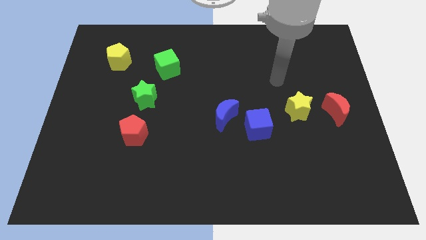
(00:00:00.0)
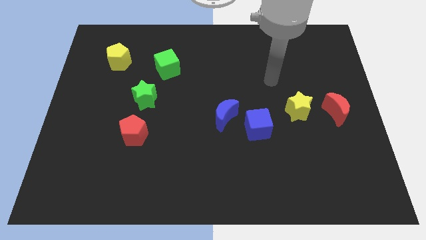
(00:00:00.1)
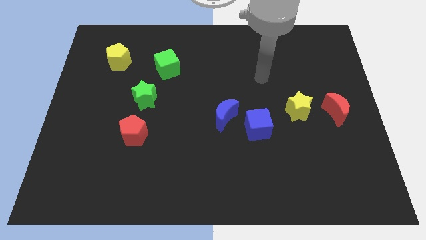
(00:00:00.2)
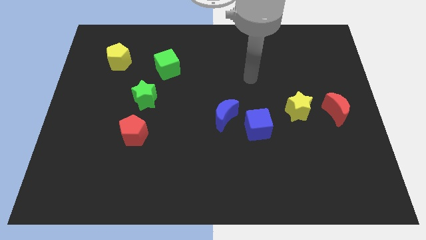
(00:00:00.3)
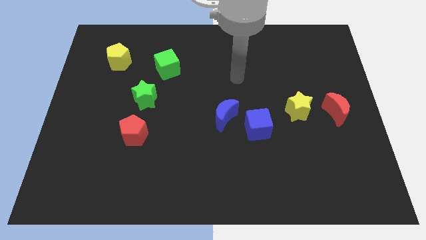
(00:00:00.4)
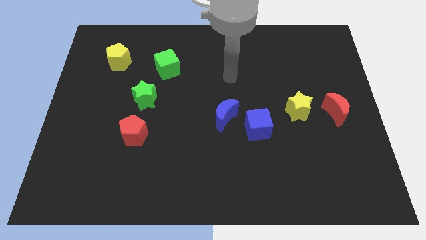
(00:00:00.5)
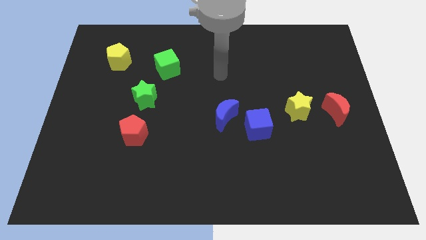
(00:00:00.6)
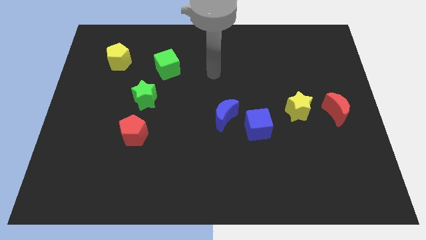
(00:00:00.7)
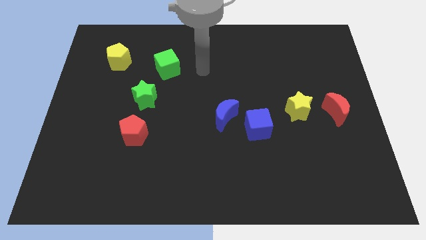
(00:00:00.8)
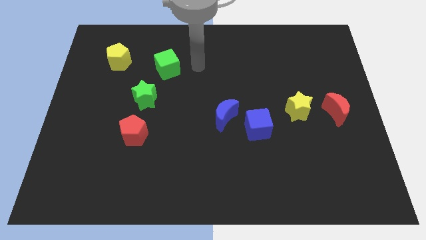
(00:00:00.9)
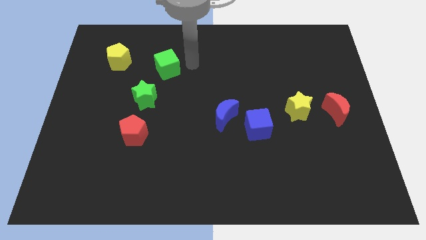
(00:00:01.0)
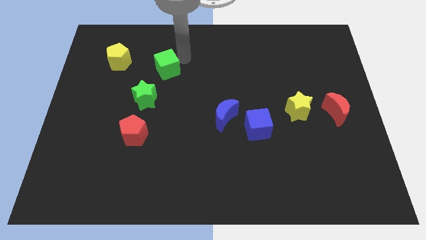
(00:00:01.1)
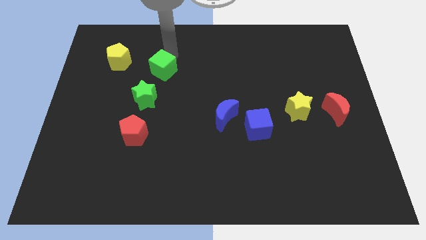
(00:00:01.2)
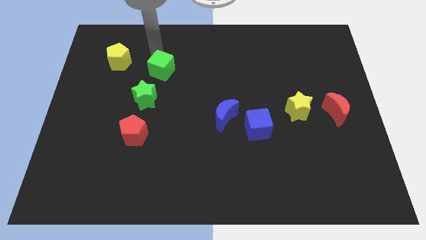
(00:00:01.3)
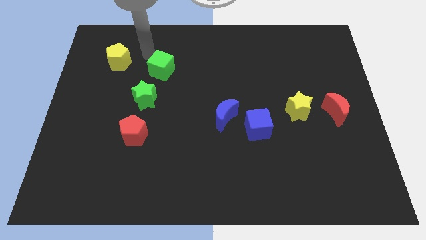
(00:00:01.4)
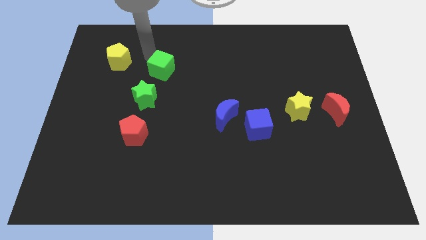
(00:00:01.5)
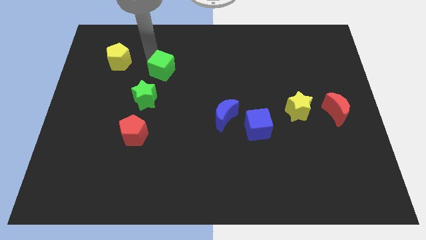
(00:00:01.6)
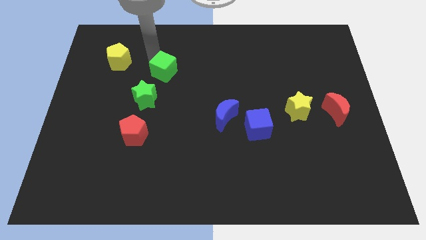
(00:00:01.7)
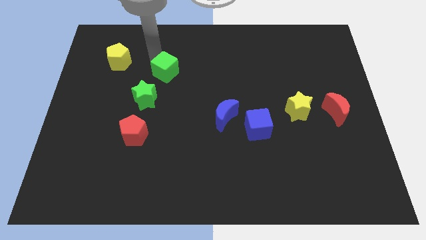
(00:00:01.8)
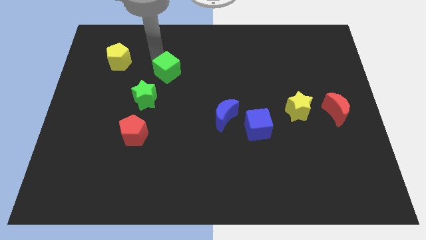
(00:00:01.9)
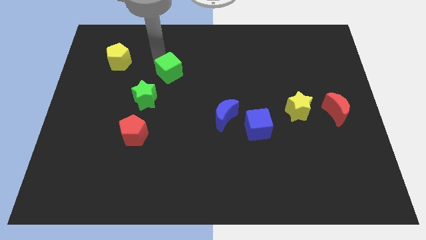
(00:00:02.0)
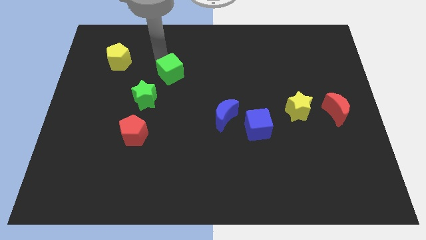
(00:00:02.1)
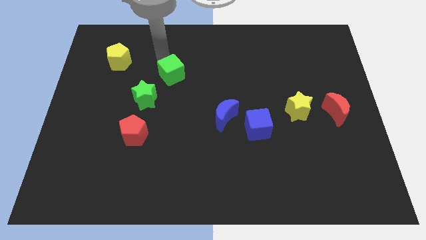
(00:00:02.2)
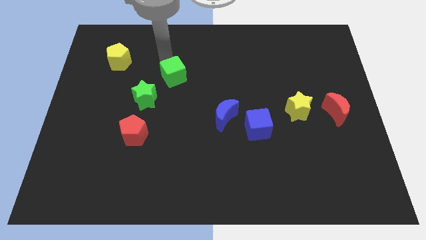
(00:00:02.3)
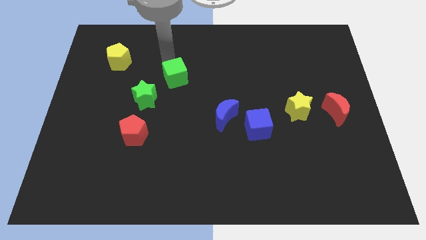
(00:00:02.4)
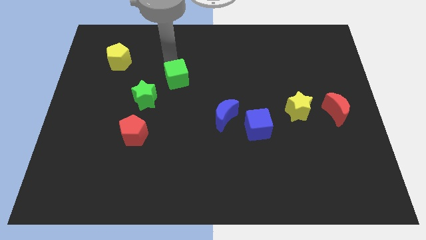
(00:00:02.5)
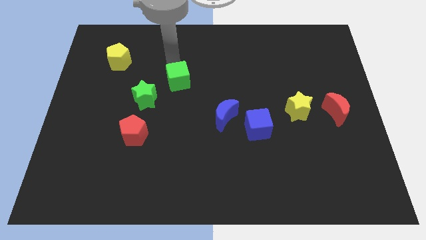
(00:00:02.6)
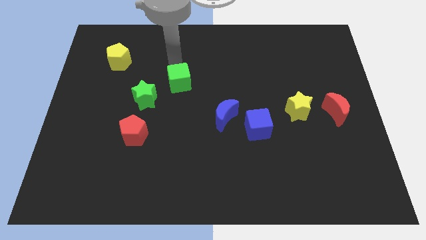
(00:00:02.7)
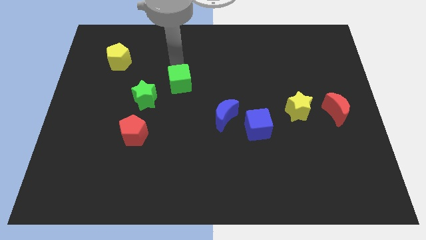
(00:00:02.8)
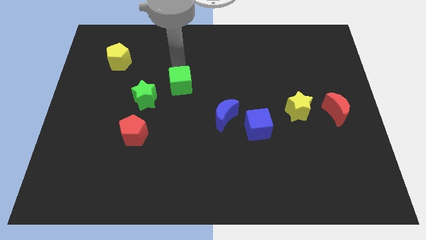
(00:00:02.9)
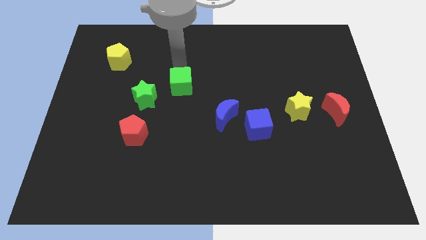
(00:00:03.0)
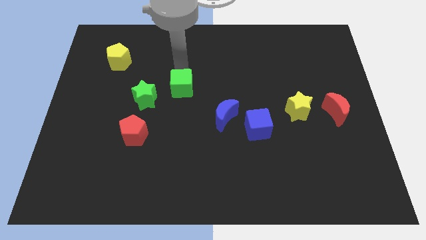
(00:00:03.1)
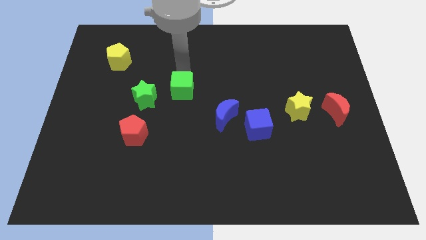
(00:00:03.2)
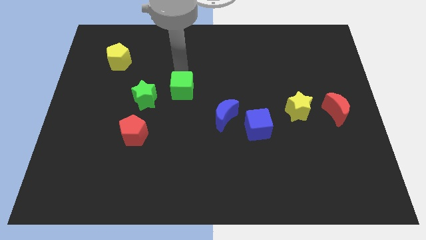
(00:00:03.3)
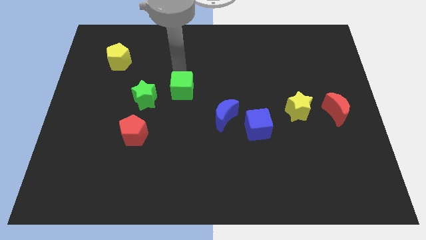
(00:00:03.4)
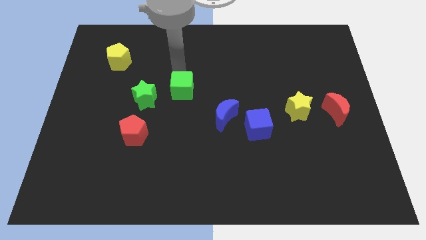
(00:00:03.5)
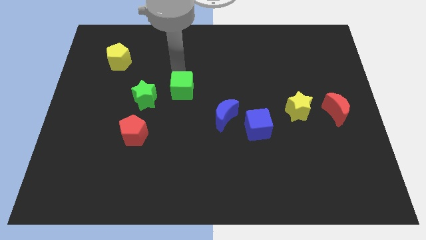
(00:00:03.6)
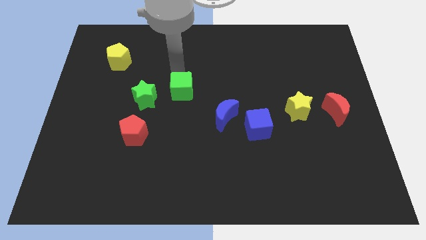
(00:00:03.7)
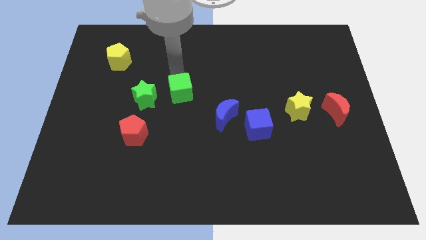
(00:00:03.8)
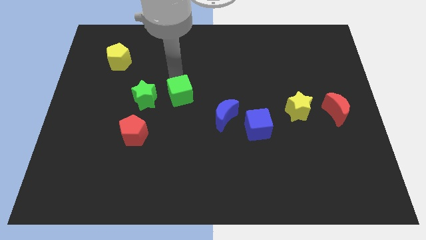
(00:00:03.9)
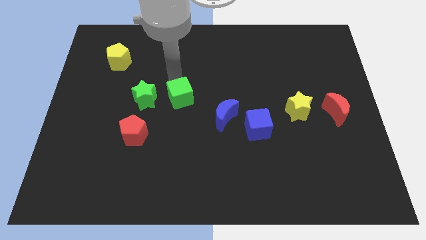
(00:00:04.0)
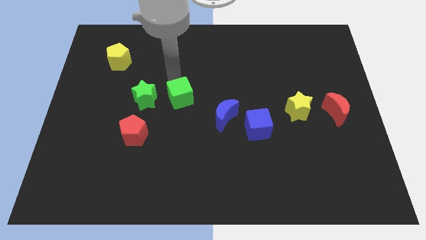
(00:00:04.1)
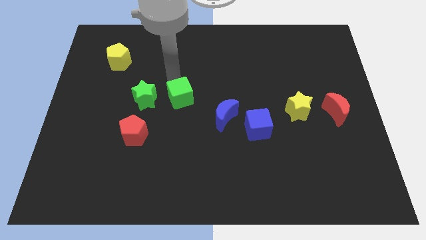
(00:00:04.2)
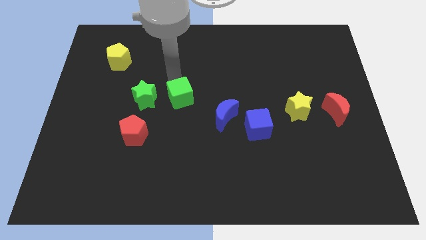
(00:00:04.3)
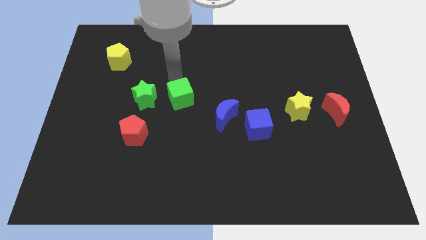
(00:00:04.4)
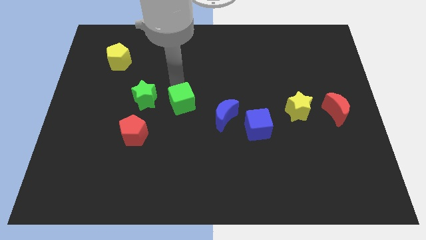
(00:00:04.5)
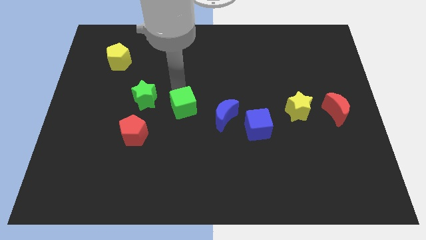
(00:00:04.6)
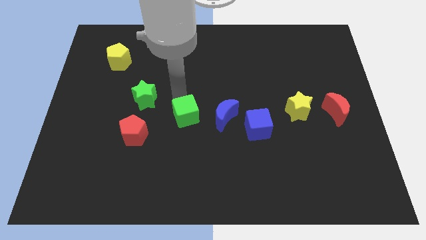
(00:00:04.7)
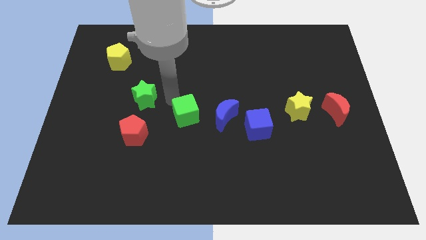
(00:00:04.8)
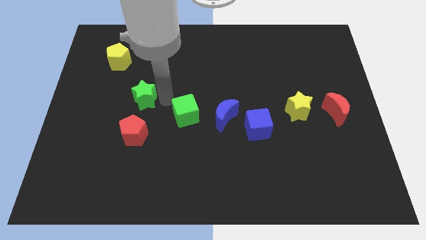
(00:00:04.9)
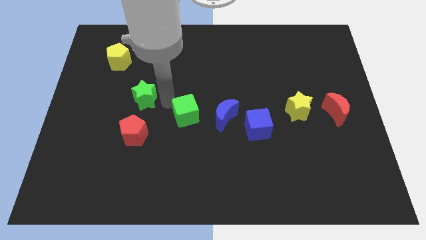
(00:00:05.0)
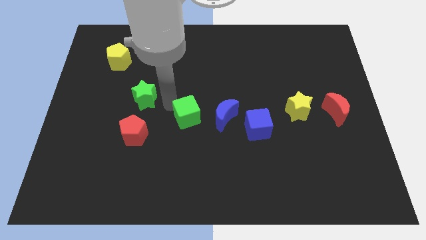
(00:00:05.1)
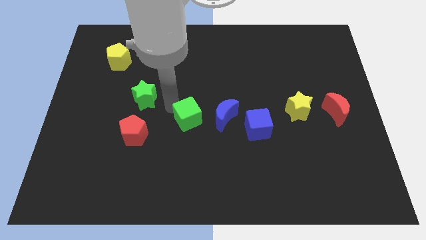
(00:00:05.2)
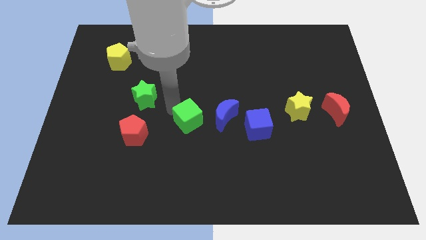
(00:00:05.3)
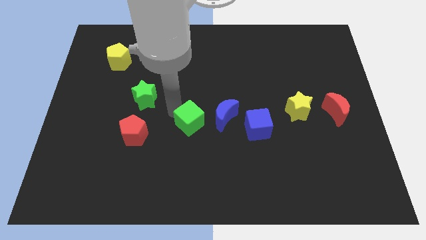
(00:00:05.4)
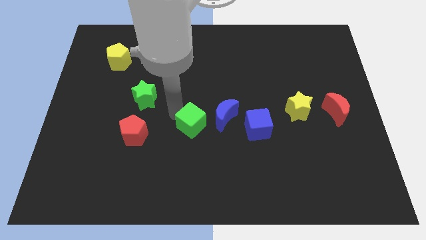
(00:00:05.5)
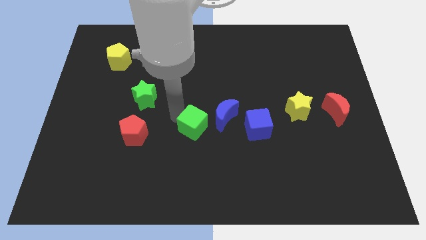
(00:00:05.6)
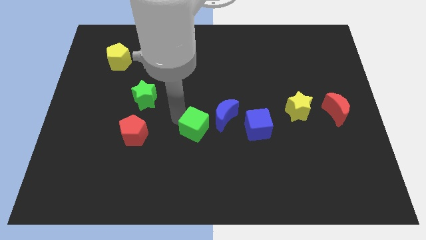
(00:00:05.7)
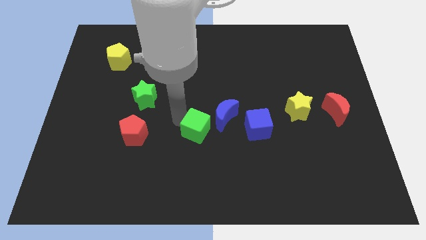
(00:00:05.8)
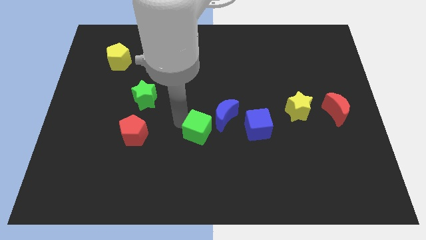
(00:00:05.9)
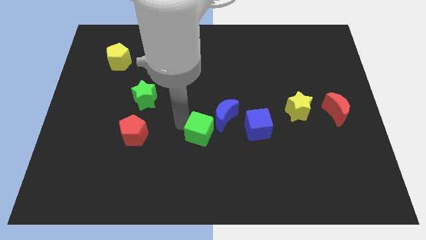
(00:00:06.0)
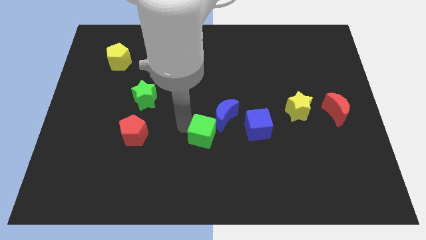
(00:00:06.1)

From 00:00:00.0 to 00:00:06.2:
push the green cube to the bottom side of the blue moon

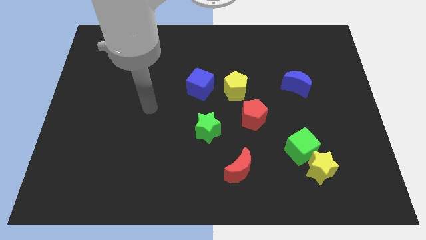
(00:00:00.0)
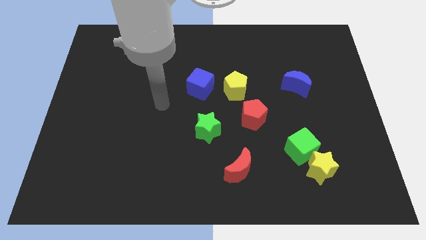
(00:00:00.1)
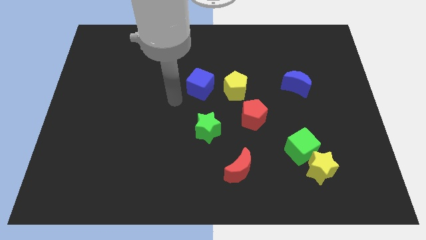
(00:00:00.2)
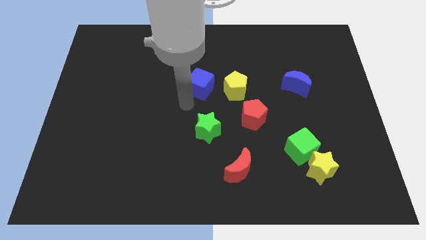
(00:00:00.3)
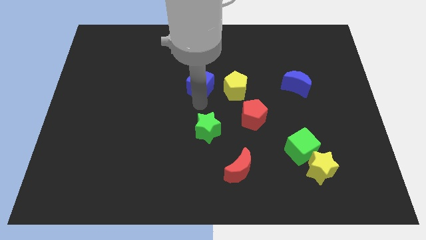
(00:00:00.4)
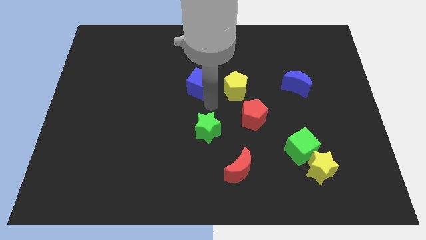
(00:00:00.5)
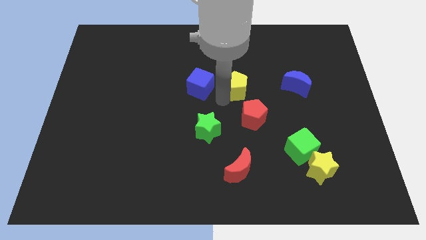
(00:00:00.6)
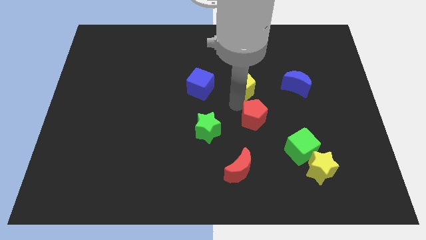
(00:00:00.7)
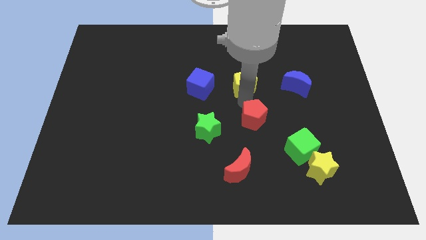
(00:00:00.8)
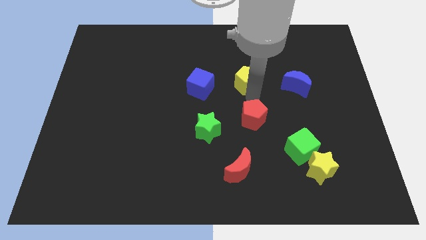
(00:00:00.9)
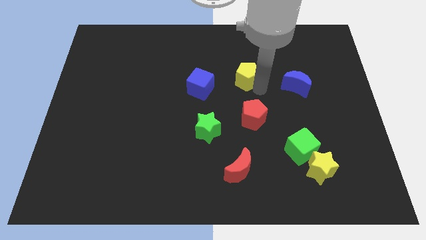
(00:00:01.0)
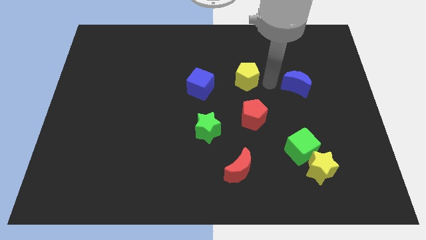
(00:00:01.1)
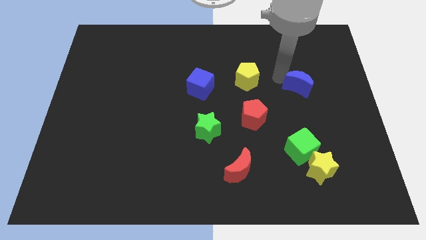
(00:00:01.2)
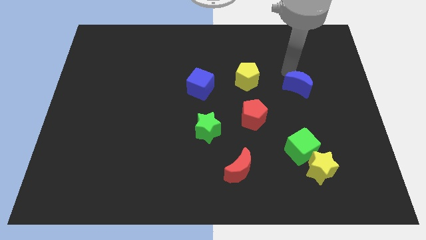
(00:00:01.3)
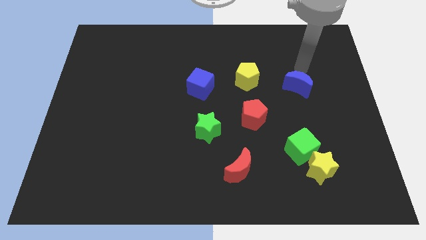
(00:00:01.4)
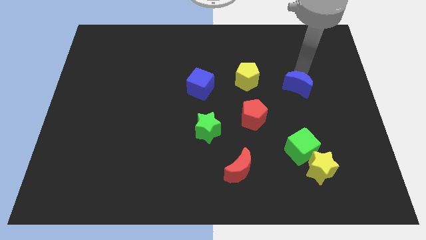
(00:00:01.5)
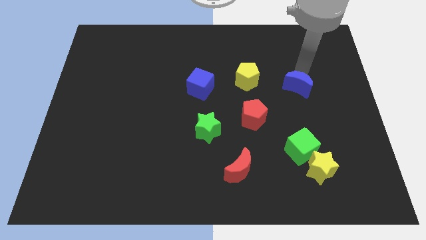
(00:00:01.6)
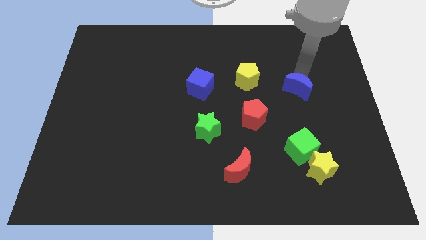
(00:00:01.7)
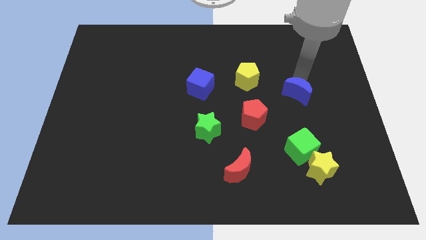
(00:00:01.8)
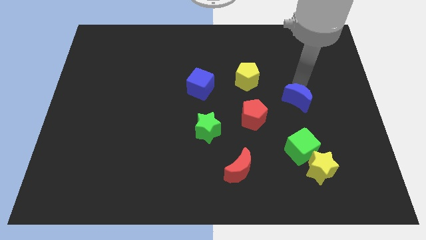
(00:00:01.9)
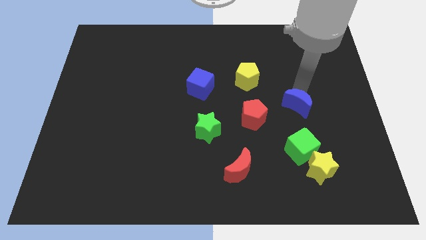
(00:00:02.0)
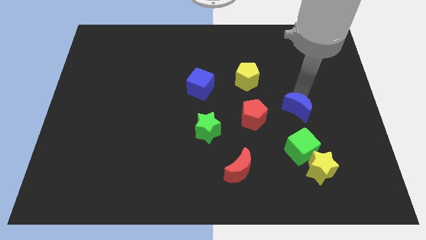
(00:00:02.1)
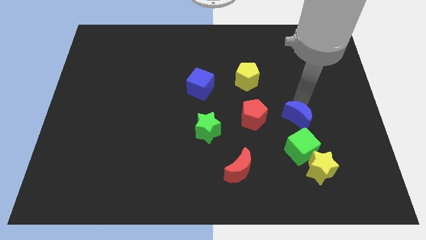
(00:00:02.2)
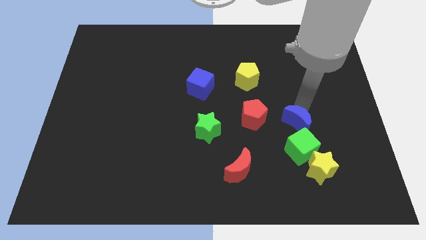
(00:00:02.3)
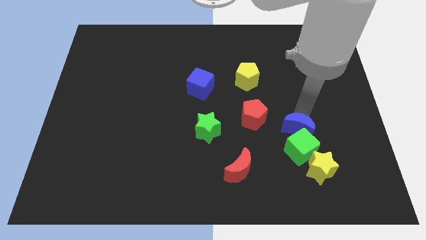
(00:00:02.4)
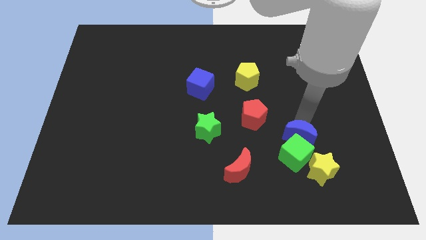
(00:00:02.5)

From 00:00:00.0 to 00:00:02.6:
put the blue moon to the bottom right of the red pentagon
